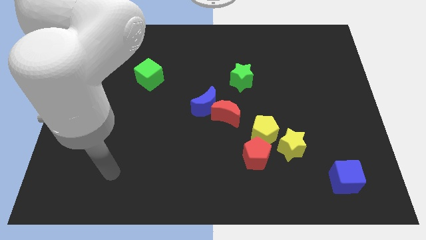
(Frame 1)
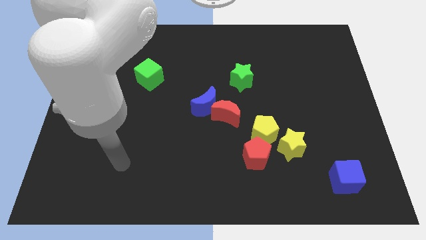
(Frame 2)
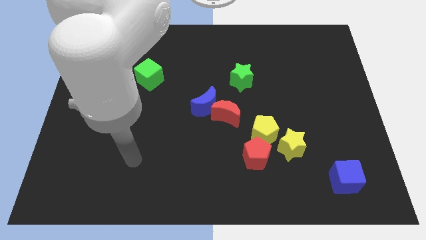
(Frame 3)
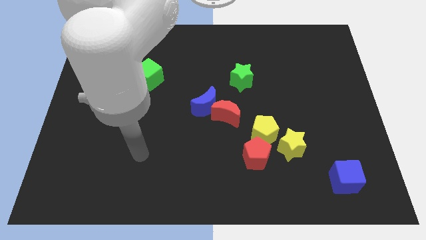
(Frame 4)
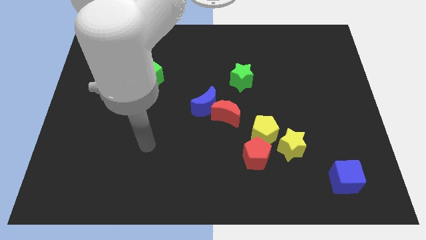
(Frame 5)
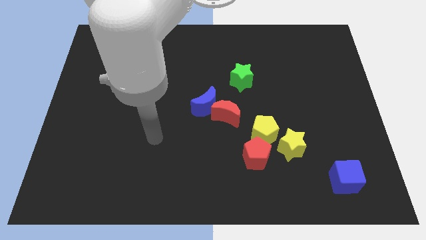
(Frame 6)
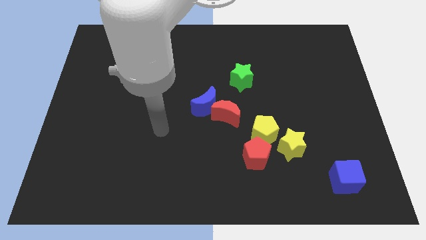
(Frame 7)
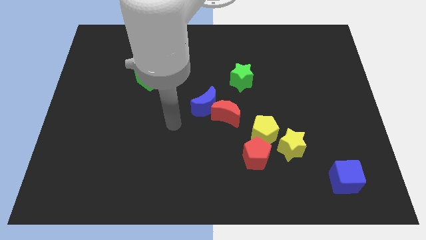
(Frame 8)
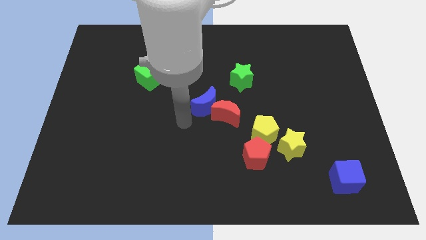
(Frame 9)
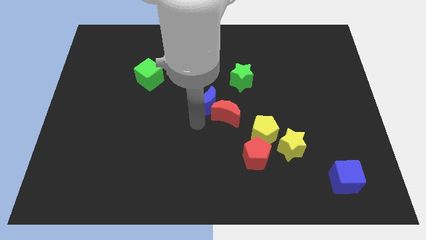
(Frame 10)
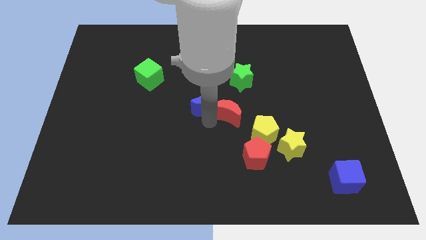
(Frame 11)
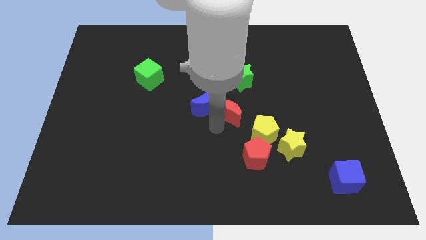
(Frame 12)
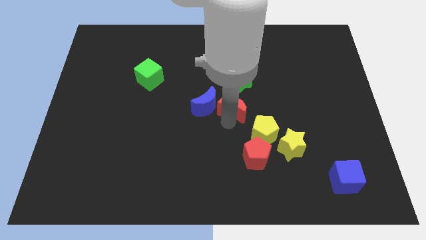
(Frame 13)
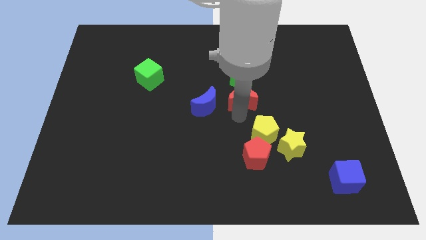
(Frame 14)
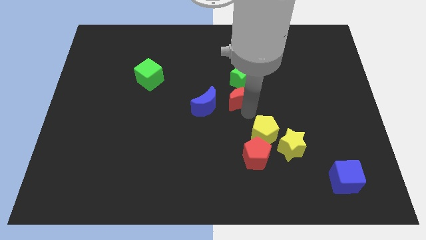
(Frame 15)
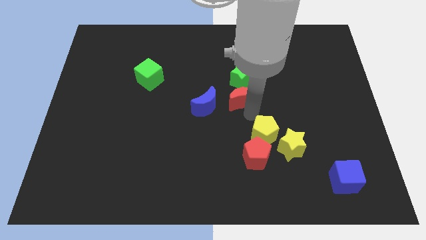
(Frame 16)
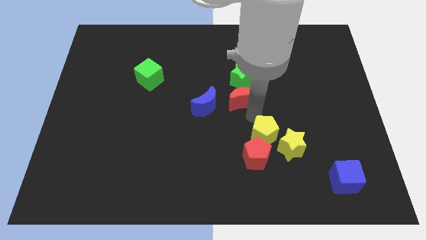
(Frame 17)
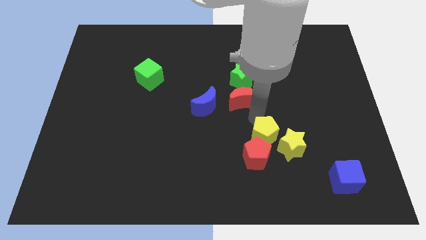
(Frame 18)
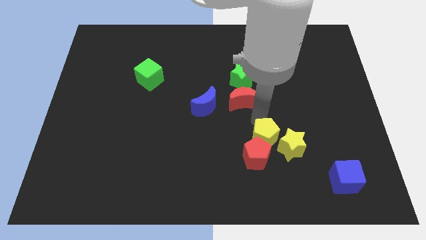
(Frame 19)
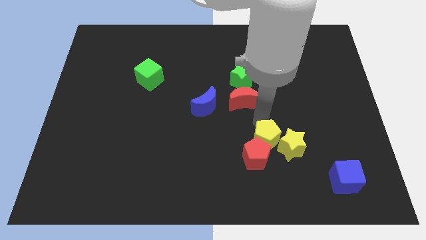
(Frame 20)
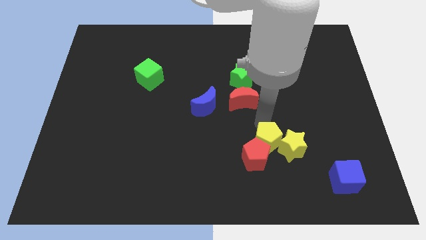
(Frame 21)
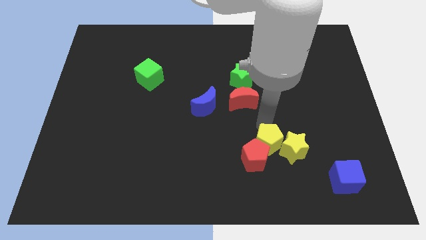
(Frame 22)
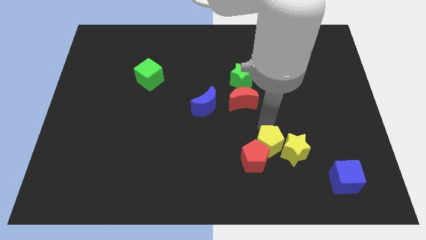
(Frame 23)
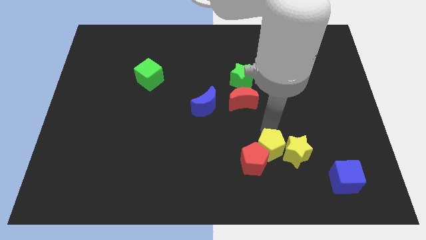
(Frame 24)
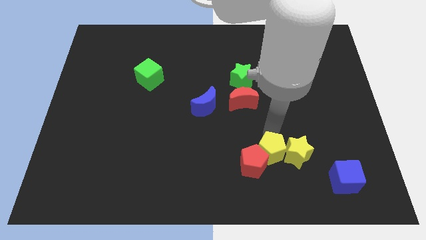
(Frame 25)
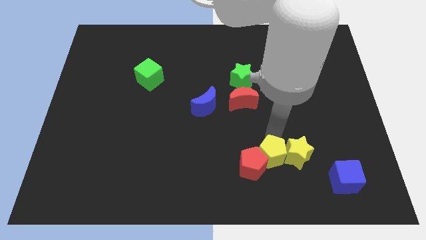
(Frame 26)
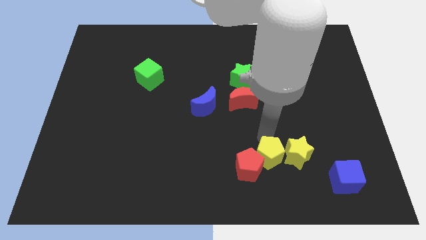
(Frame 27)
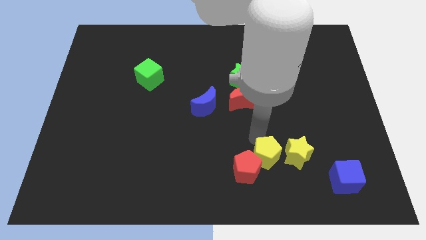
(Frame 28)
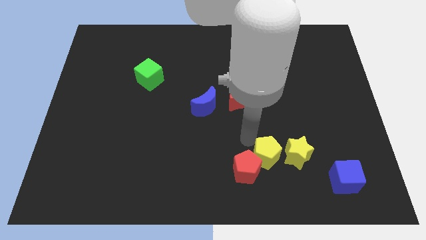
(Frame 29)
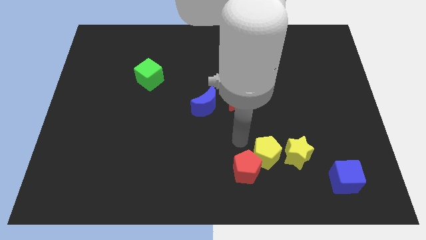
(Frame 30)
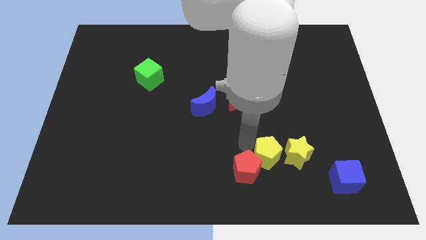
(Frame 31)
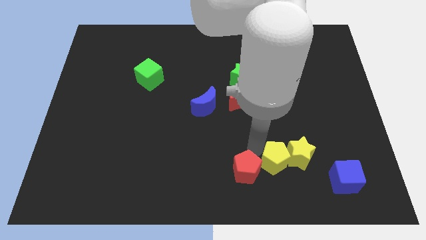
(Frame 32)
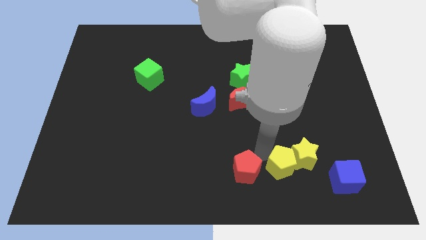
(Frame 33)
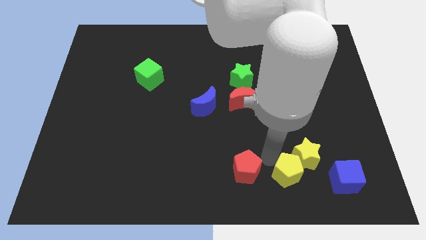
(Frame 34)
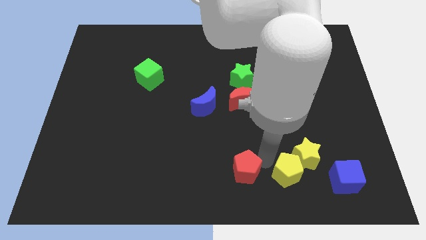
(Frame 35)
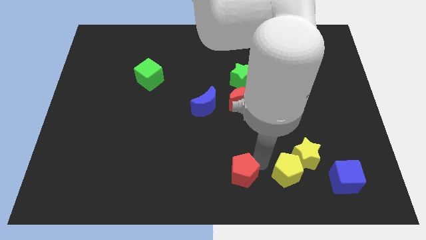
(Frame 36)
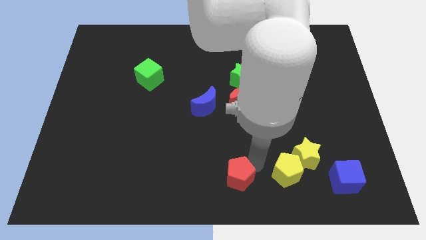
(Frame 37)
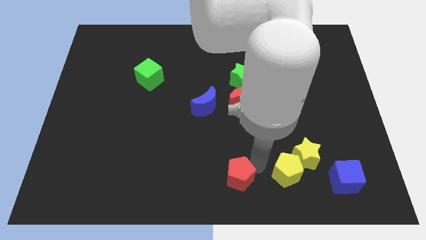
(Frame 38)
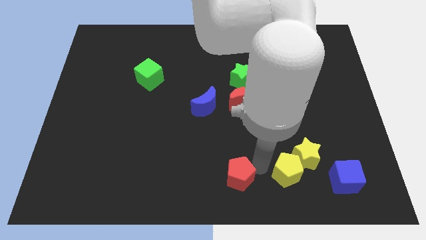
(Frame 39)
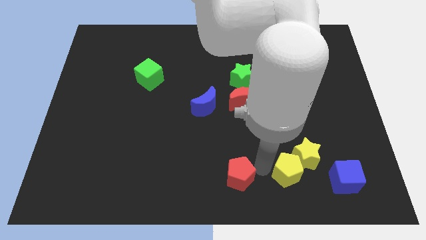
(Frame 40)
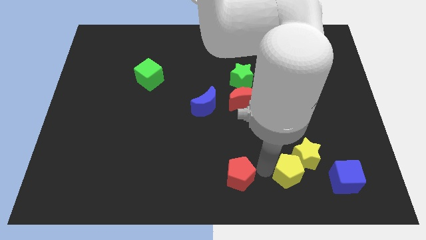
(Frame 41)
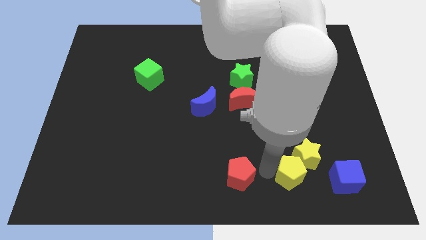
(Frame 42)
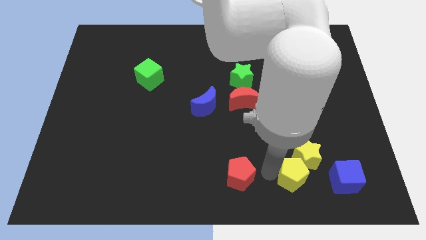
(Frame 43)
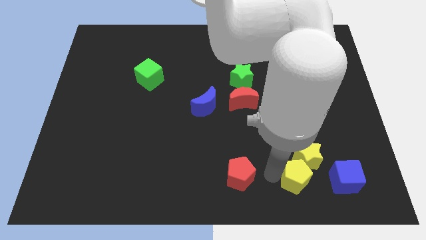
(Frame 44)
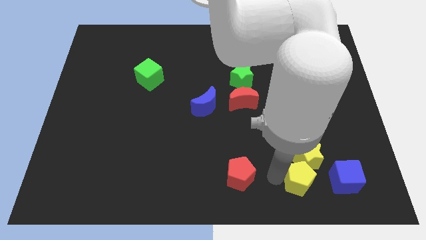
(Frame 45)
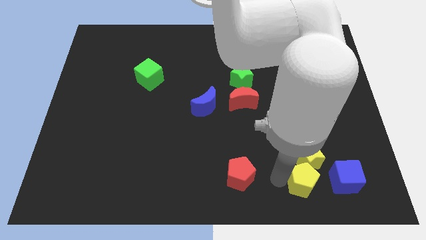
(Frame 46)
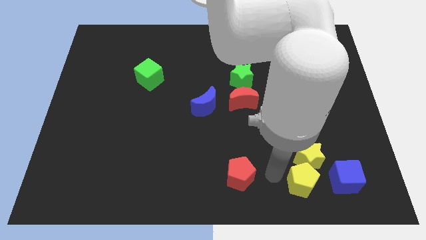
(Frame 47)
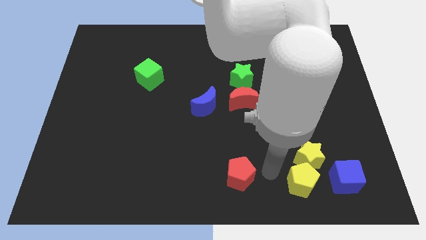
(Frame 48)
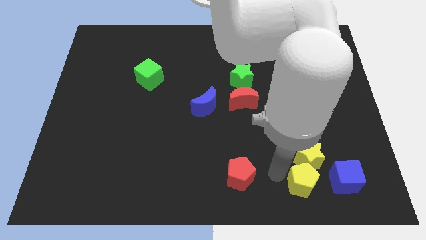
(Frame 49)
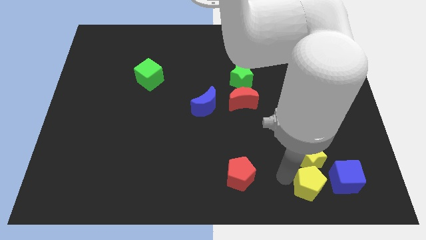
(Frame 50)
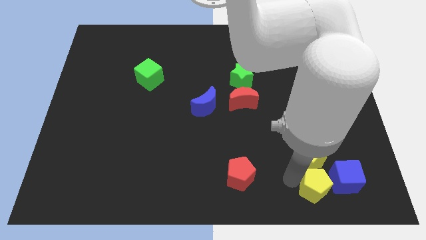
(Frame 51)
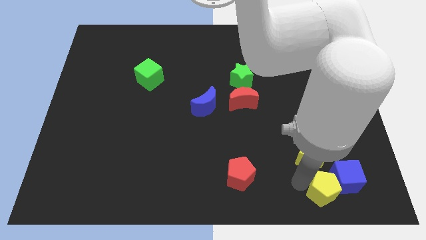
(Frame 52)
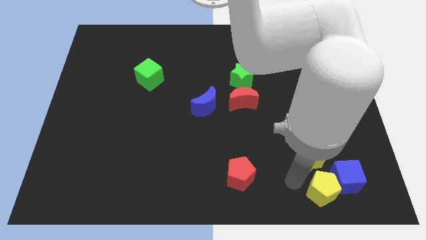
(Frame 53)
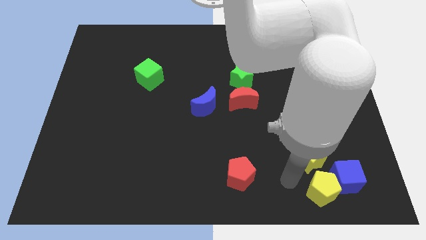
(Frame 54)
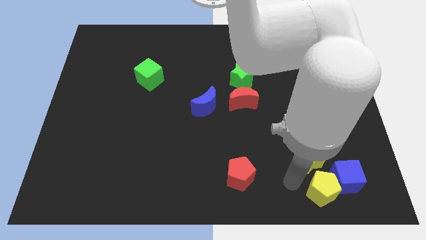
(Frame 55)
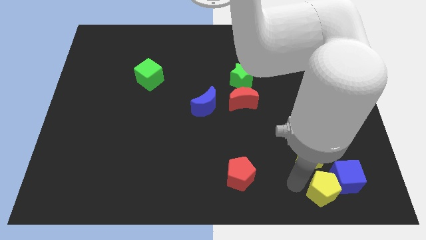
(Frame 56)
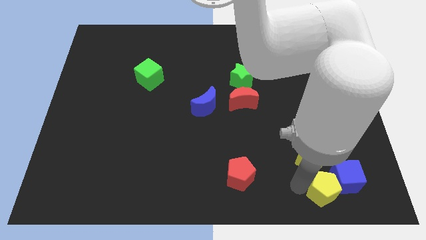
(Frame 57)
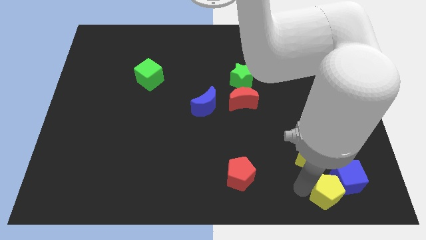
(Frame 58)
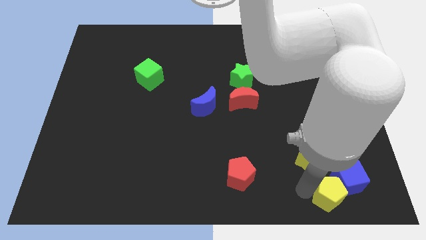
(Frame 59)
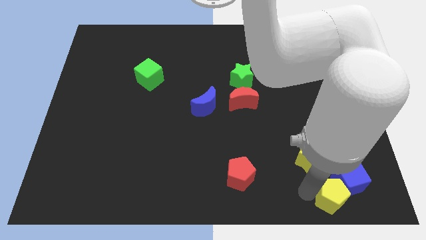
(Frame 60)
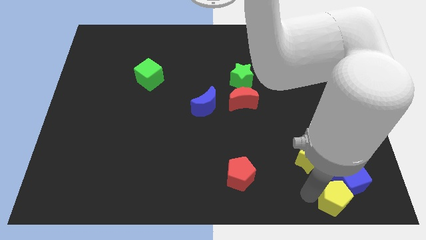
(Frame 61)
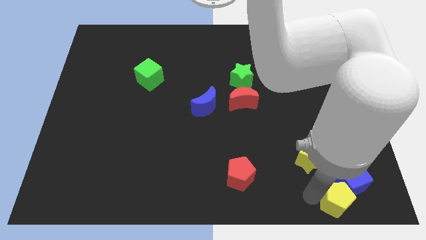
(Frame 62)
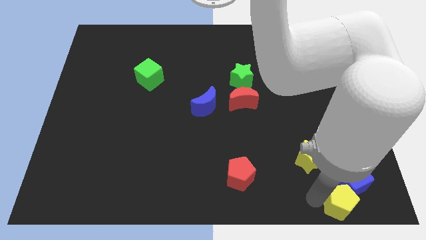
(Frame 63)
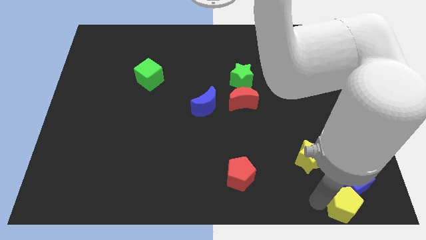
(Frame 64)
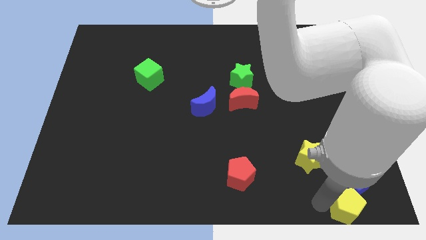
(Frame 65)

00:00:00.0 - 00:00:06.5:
move the yellow pentagon to the lower right corner

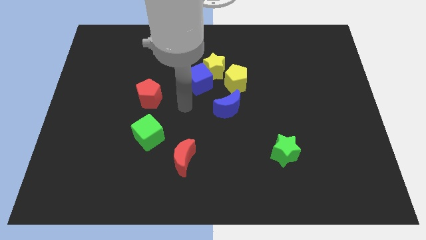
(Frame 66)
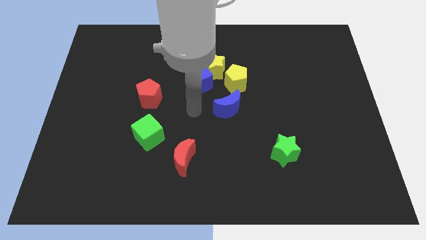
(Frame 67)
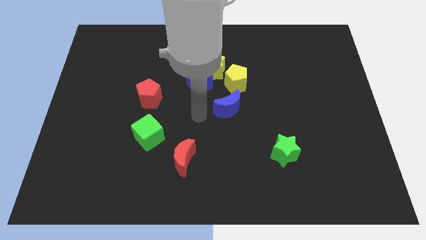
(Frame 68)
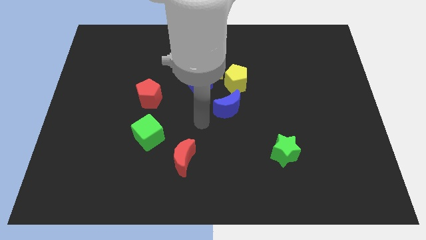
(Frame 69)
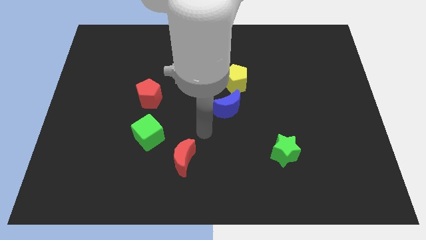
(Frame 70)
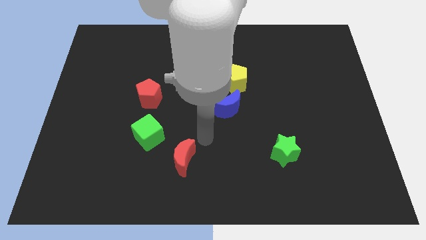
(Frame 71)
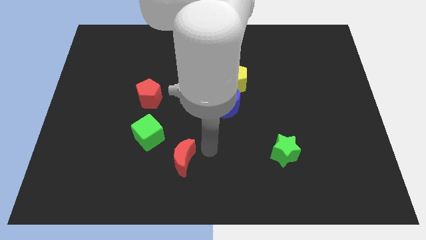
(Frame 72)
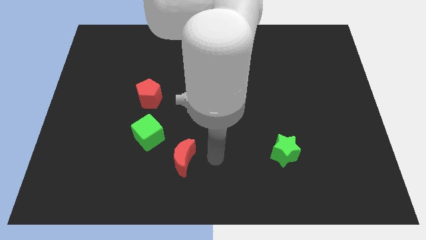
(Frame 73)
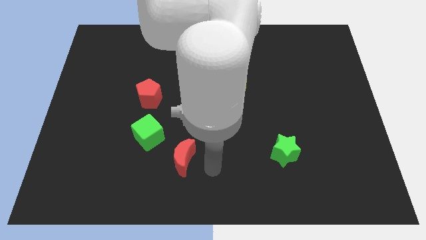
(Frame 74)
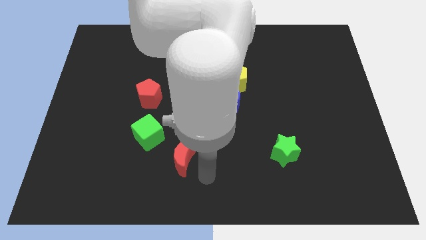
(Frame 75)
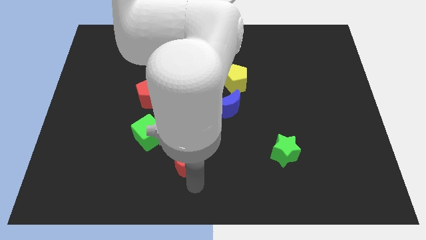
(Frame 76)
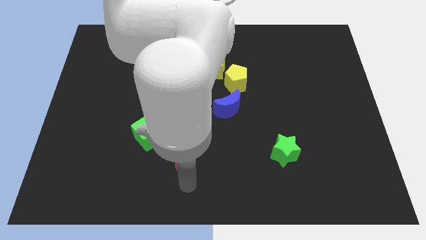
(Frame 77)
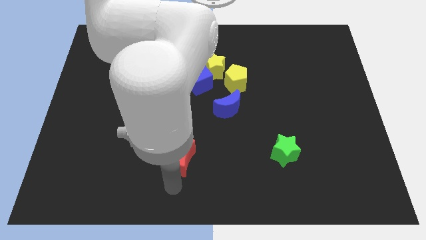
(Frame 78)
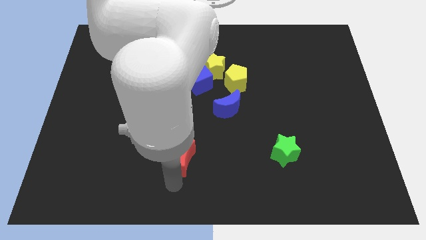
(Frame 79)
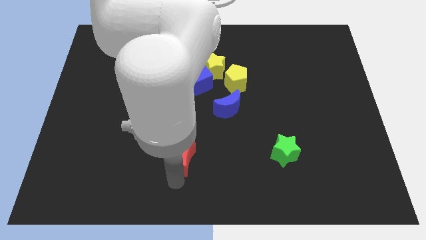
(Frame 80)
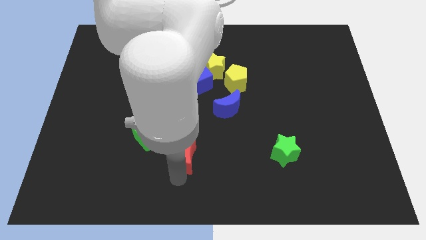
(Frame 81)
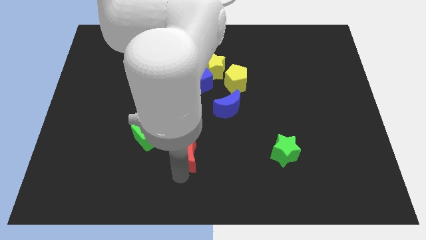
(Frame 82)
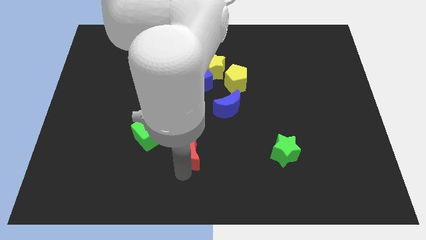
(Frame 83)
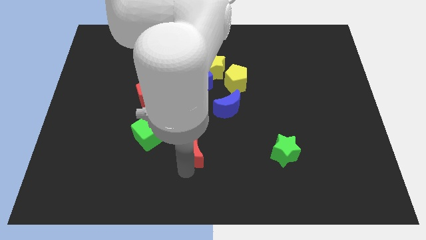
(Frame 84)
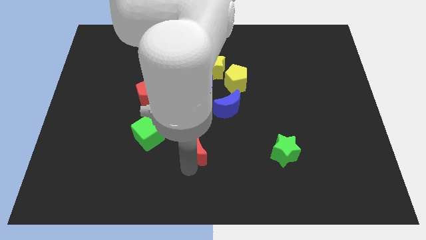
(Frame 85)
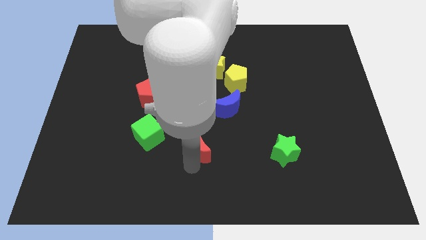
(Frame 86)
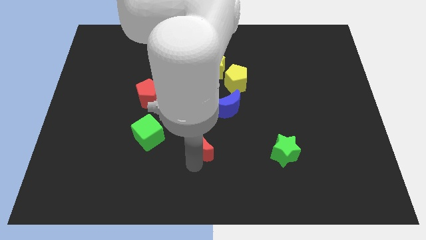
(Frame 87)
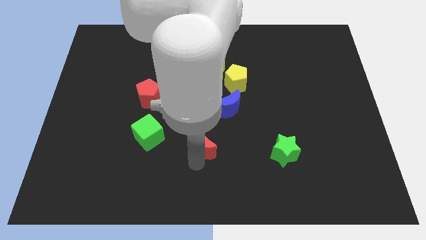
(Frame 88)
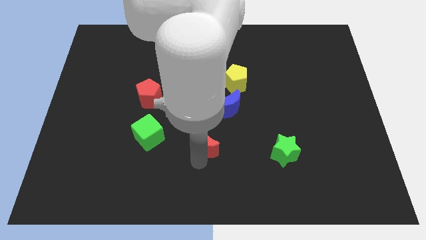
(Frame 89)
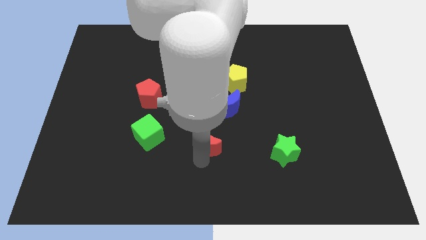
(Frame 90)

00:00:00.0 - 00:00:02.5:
put the red moon to the middle
